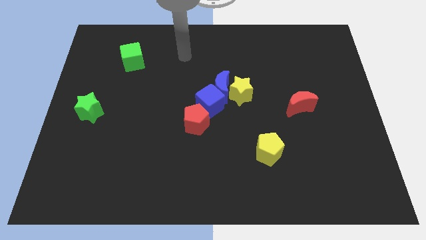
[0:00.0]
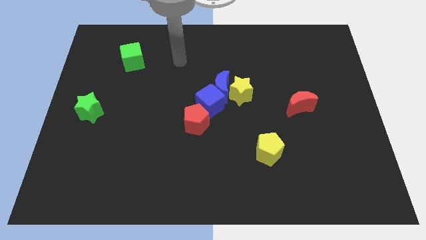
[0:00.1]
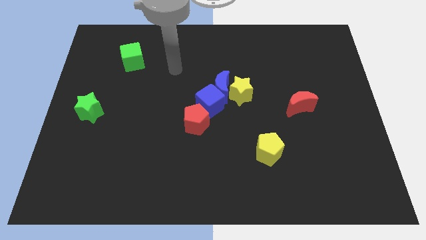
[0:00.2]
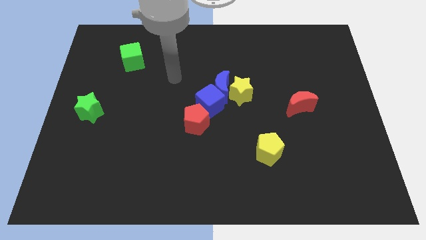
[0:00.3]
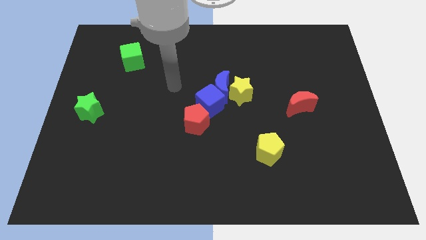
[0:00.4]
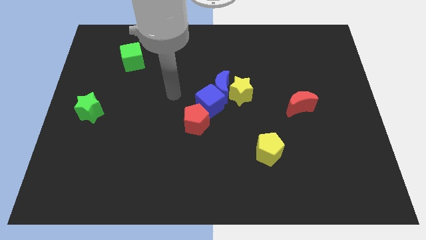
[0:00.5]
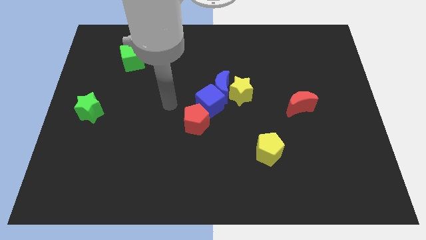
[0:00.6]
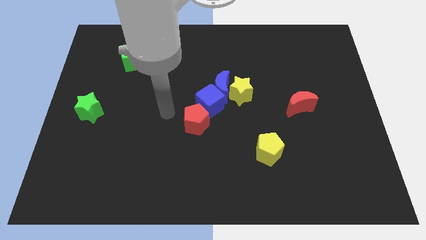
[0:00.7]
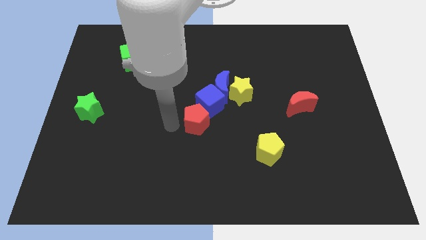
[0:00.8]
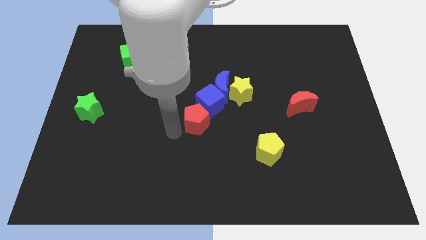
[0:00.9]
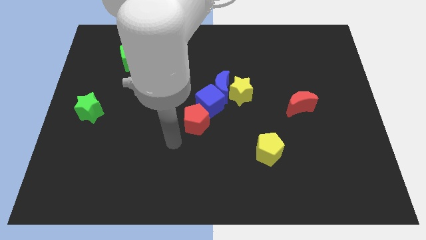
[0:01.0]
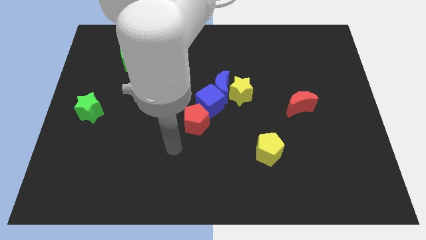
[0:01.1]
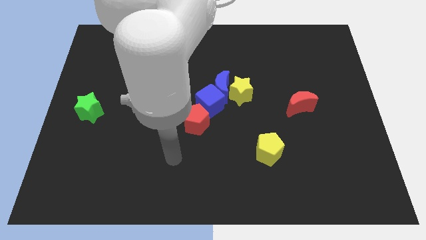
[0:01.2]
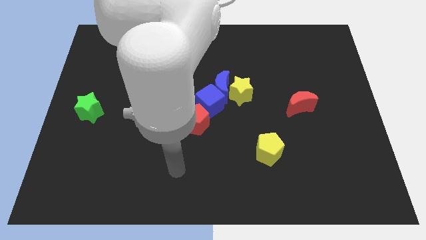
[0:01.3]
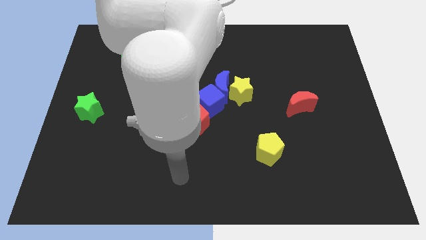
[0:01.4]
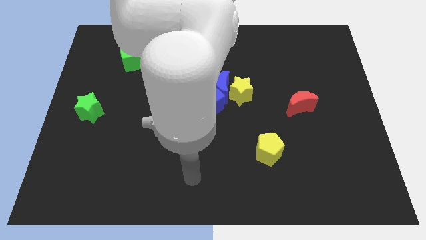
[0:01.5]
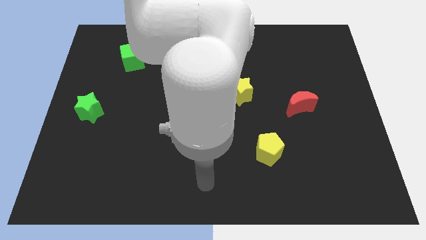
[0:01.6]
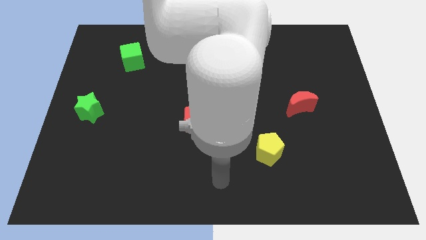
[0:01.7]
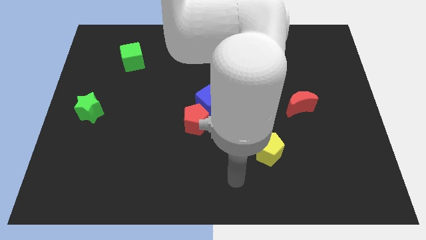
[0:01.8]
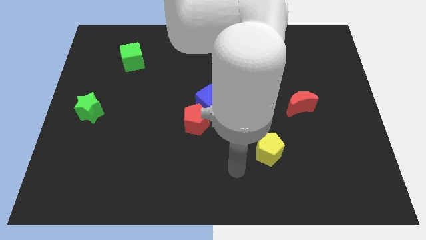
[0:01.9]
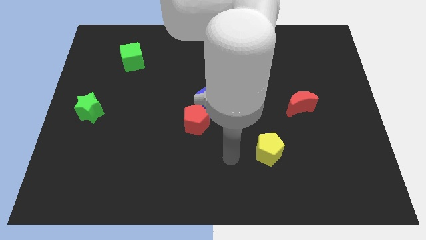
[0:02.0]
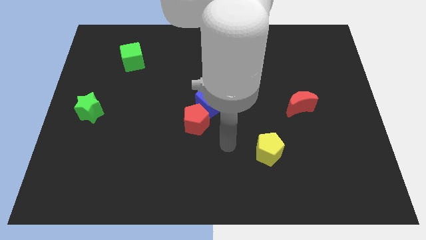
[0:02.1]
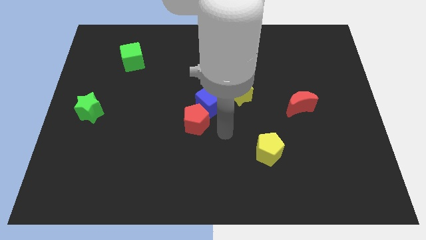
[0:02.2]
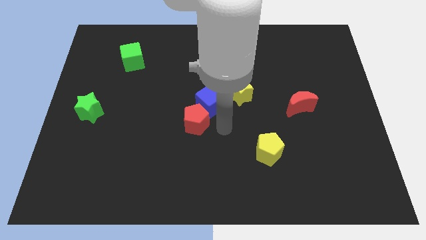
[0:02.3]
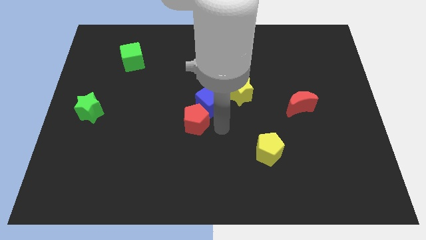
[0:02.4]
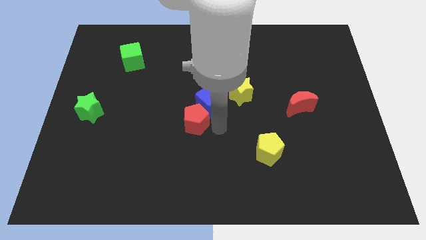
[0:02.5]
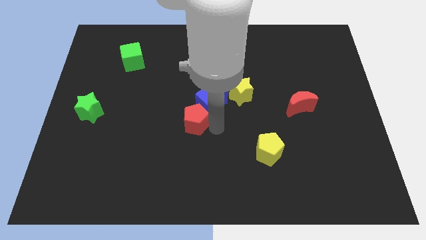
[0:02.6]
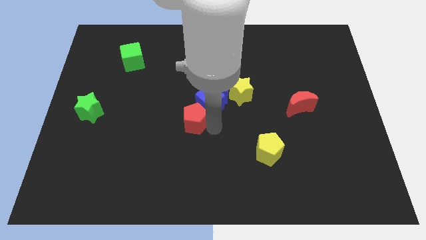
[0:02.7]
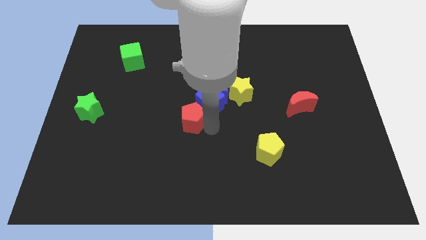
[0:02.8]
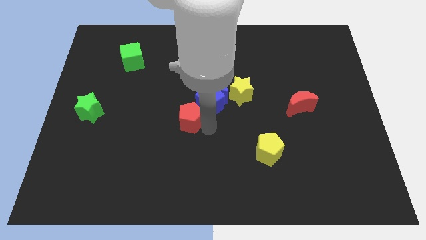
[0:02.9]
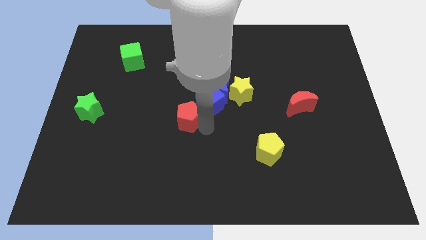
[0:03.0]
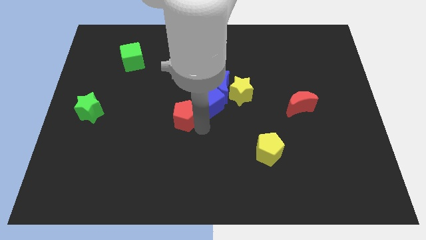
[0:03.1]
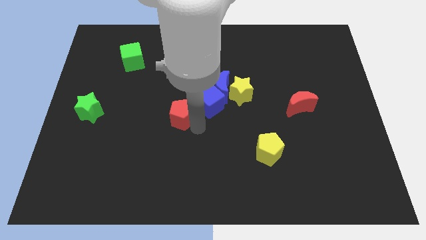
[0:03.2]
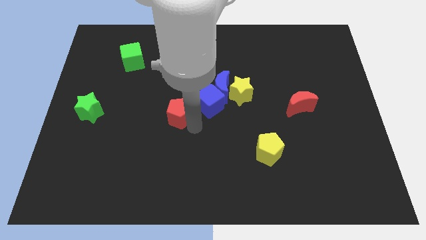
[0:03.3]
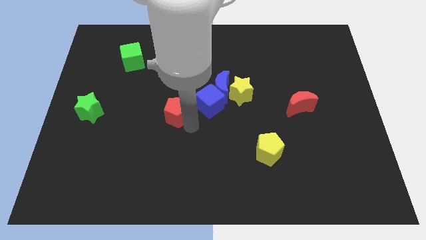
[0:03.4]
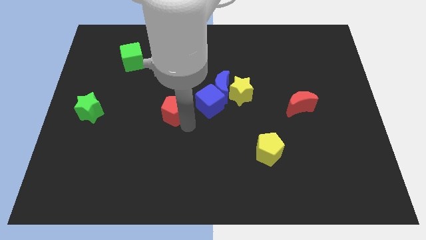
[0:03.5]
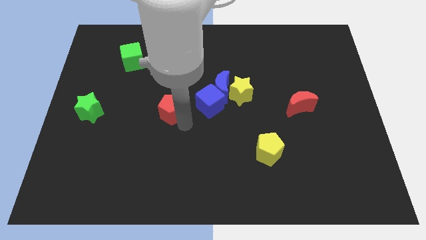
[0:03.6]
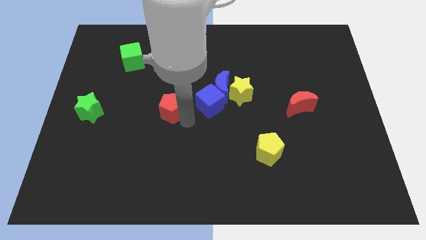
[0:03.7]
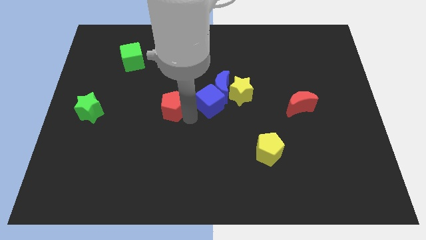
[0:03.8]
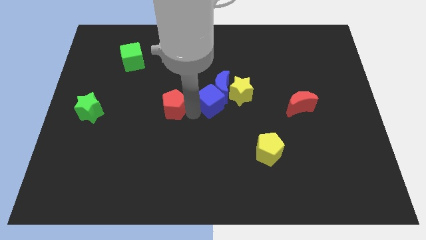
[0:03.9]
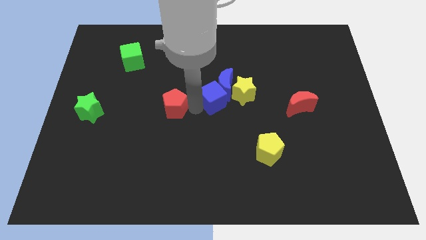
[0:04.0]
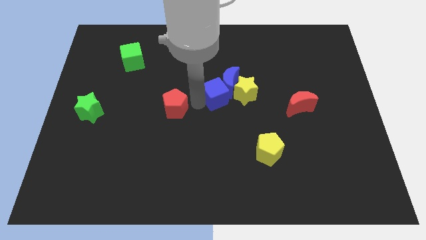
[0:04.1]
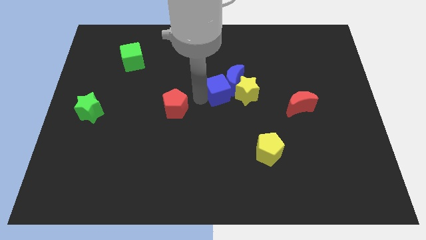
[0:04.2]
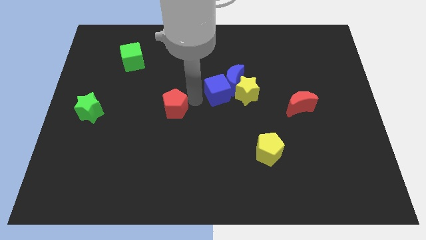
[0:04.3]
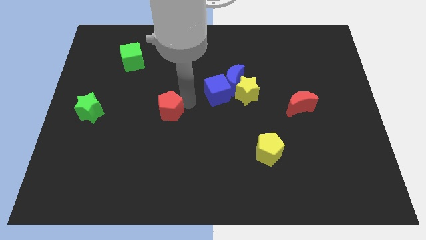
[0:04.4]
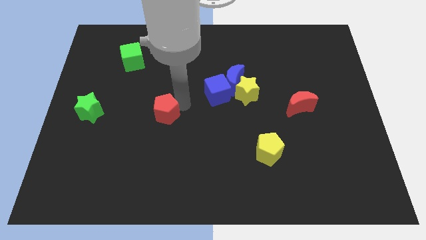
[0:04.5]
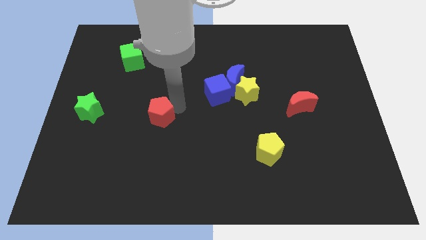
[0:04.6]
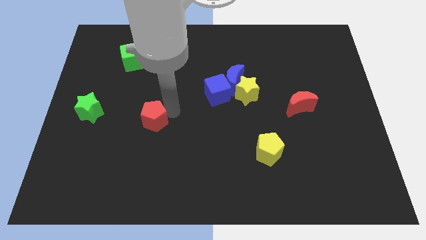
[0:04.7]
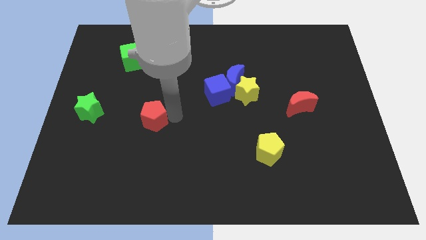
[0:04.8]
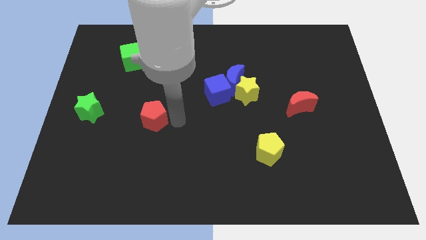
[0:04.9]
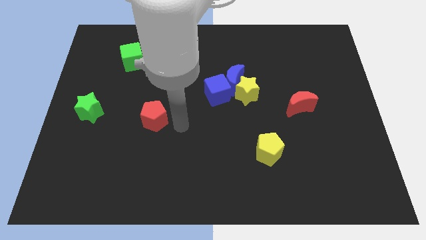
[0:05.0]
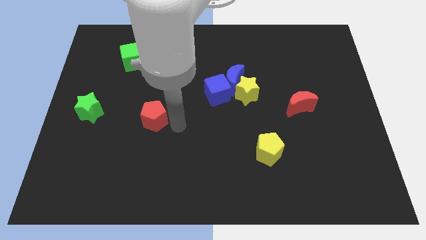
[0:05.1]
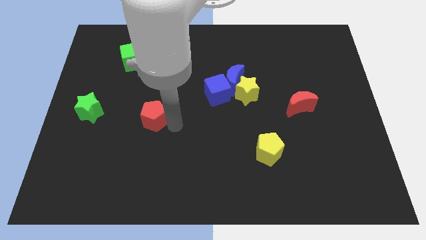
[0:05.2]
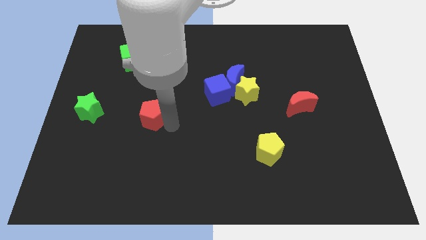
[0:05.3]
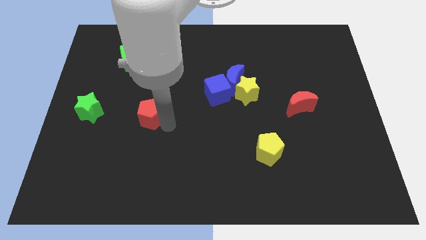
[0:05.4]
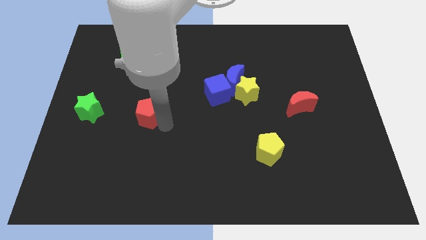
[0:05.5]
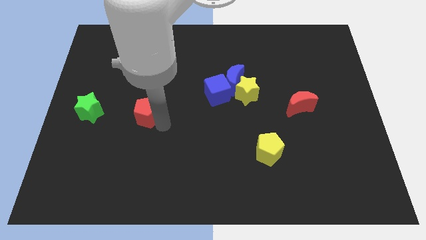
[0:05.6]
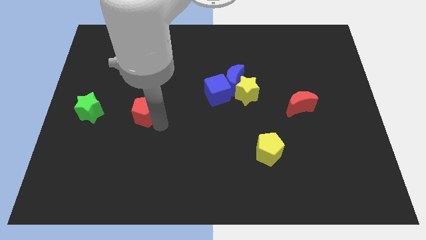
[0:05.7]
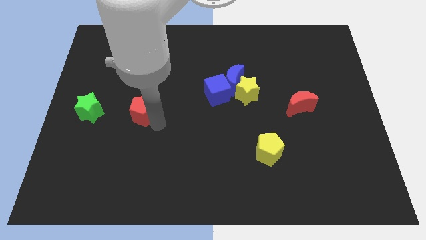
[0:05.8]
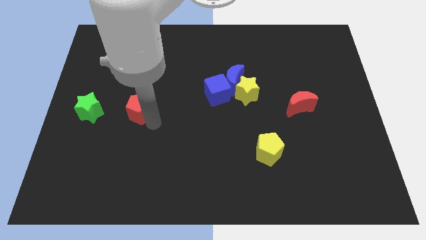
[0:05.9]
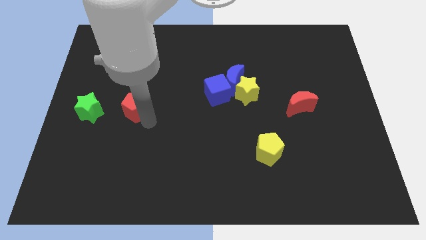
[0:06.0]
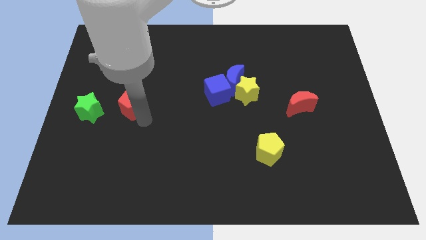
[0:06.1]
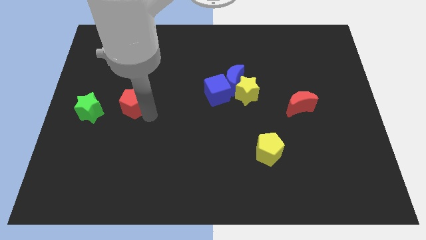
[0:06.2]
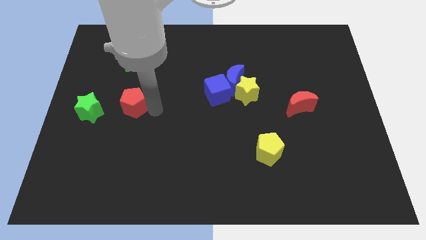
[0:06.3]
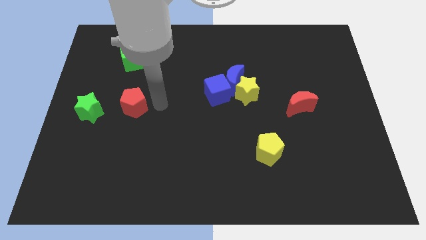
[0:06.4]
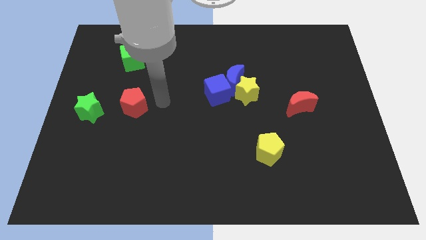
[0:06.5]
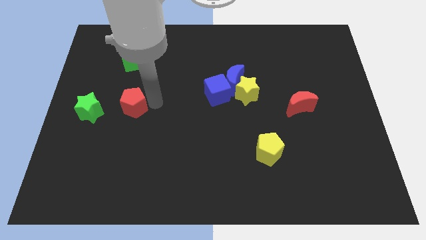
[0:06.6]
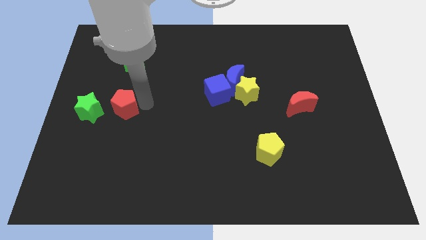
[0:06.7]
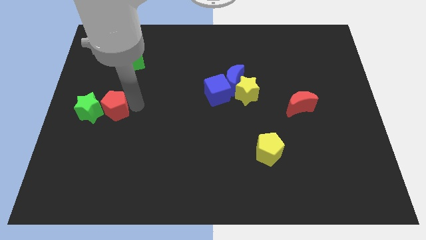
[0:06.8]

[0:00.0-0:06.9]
put the red pentagon towards the green star

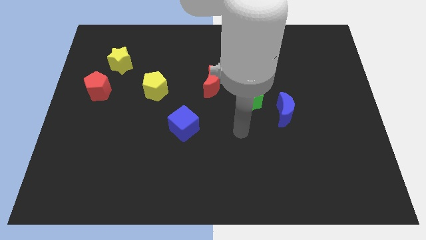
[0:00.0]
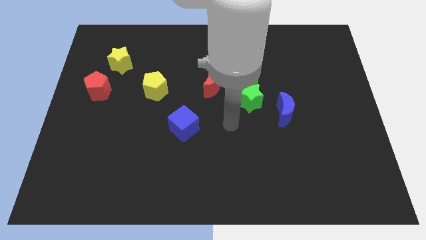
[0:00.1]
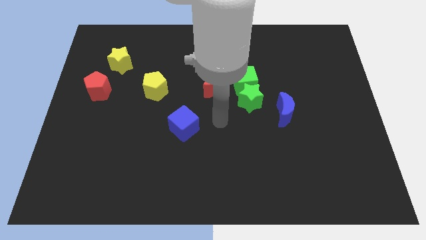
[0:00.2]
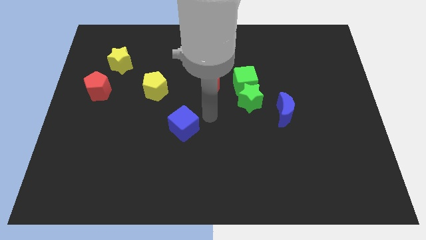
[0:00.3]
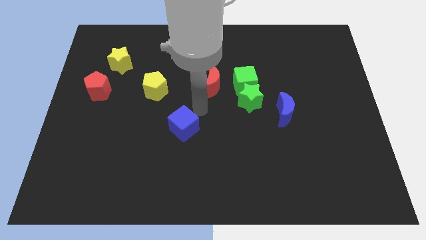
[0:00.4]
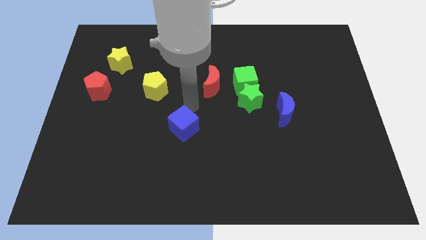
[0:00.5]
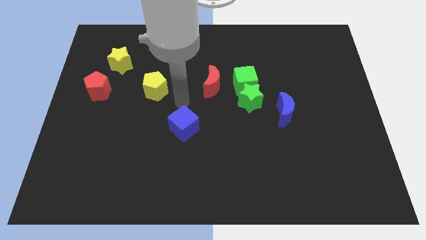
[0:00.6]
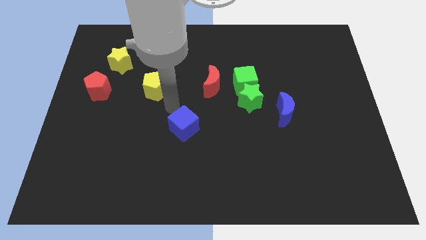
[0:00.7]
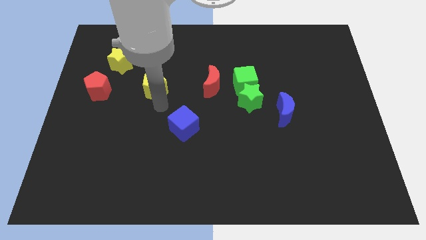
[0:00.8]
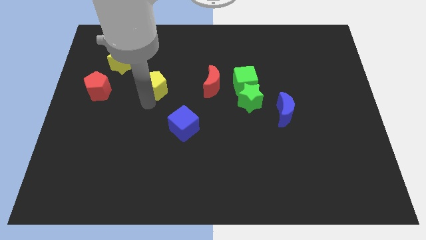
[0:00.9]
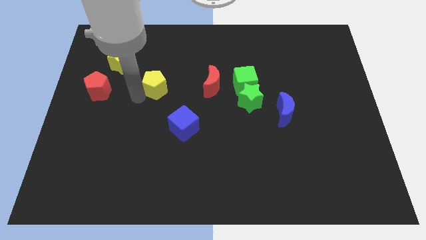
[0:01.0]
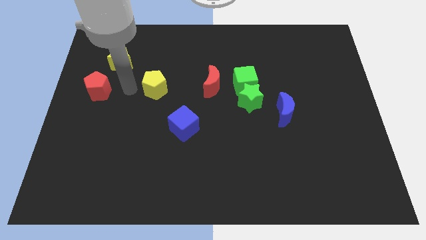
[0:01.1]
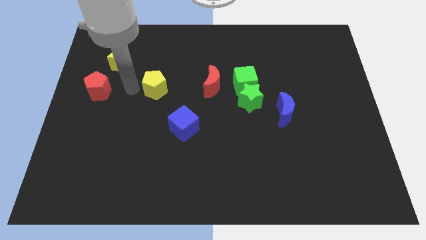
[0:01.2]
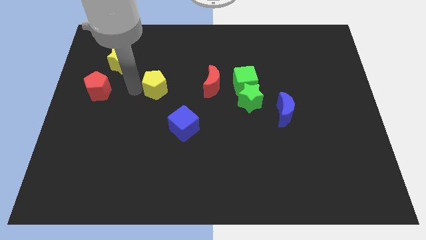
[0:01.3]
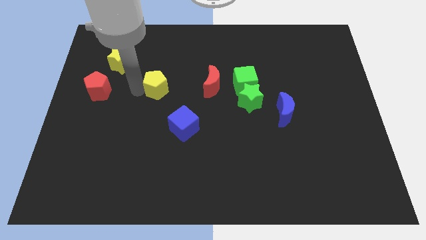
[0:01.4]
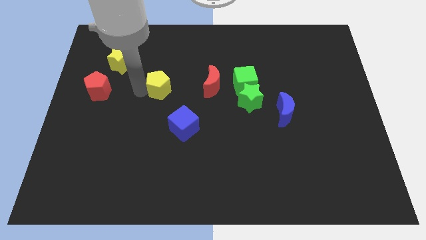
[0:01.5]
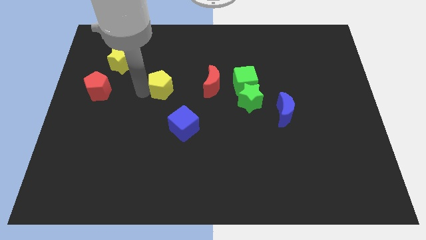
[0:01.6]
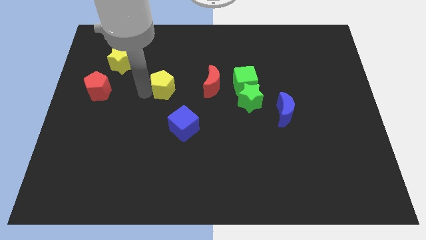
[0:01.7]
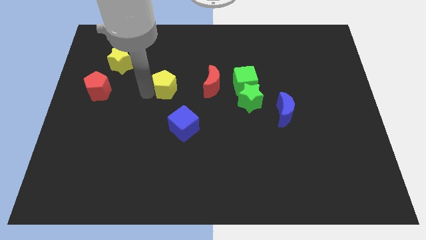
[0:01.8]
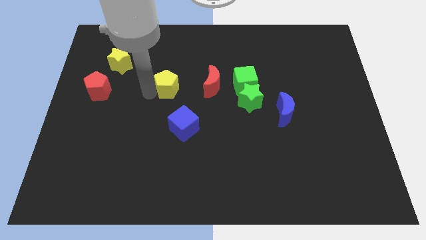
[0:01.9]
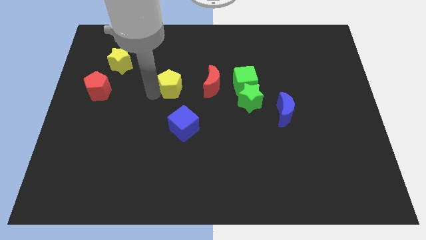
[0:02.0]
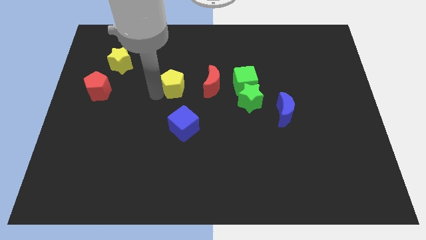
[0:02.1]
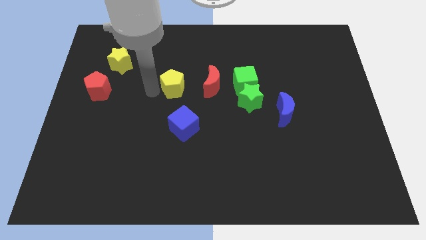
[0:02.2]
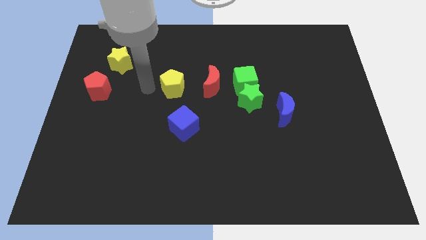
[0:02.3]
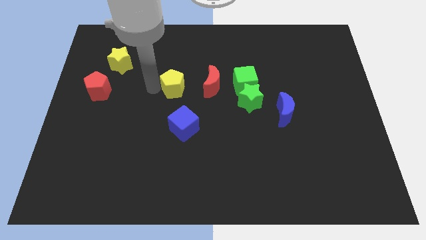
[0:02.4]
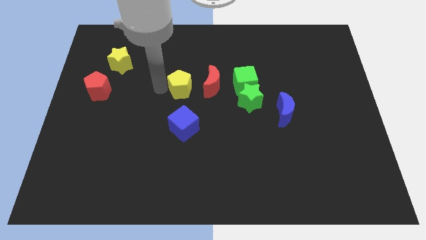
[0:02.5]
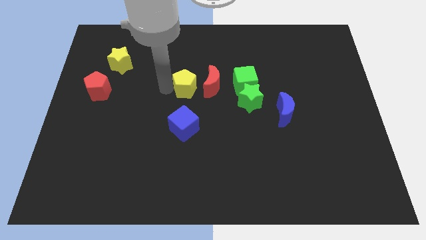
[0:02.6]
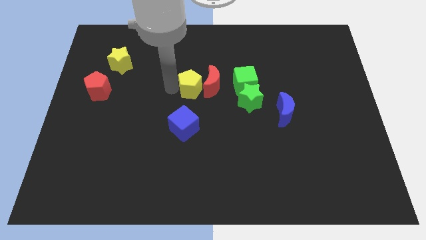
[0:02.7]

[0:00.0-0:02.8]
put the yellow pentagon next to the red moon
